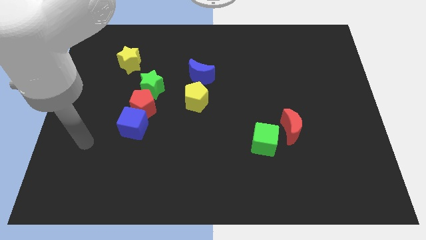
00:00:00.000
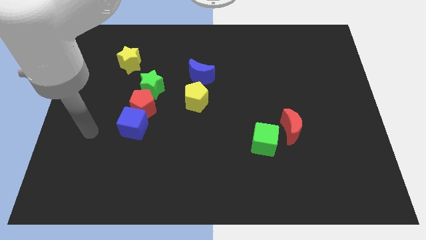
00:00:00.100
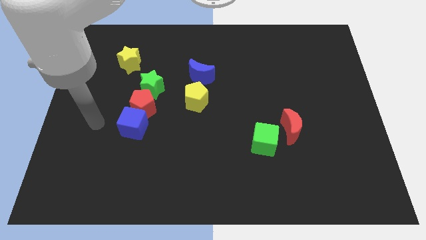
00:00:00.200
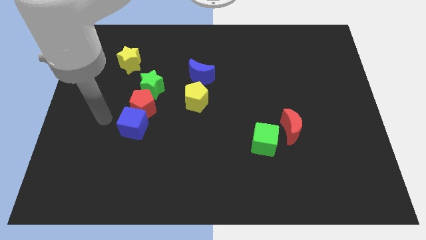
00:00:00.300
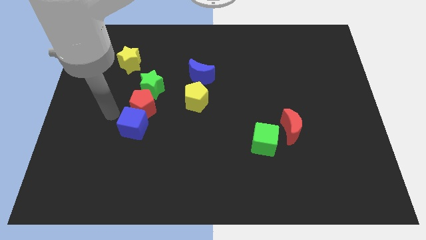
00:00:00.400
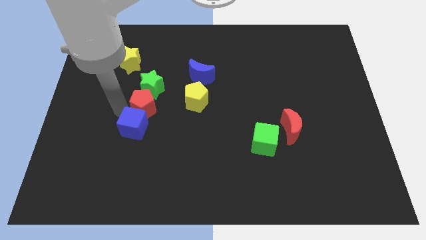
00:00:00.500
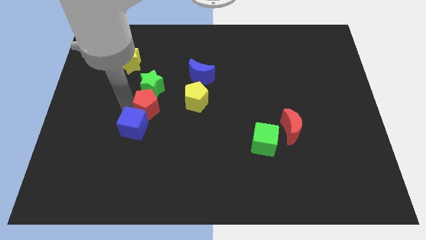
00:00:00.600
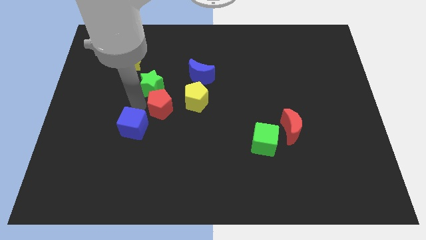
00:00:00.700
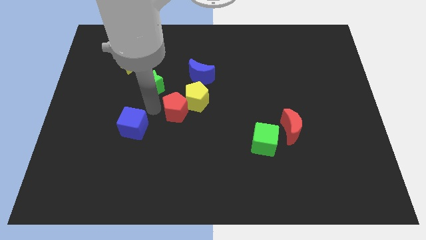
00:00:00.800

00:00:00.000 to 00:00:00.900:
pull the blue cube apart from the red pentagon

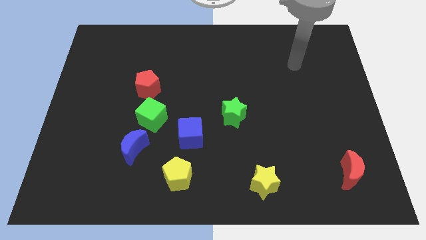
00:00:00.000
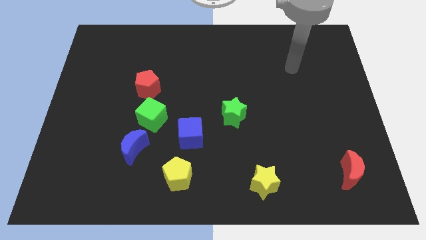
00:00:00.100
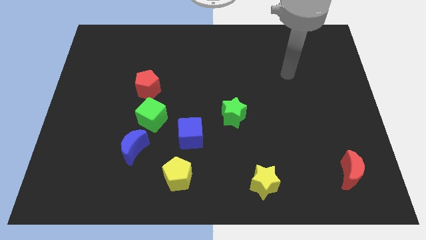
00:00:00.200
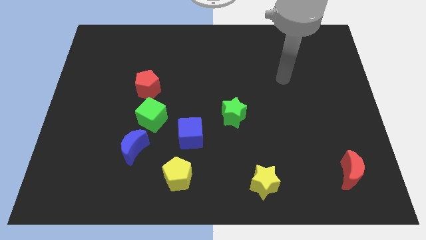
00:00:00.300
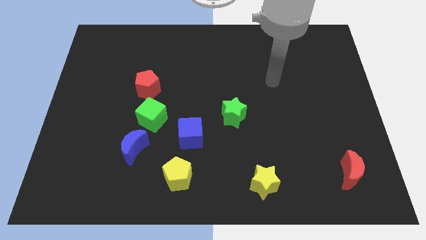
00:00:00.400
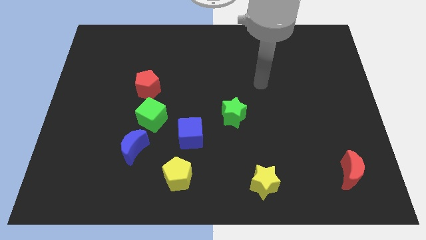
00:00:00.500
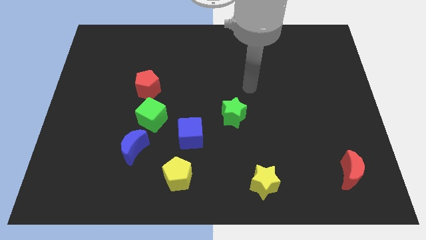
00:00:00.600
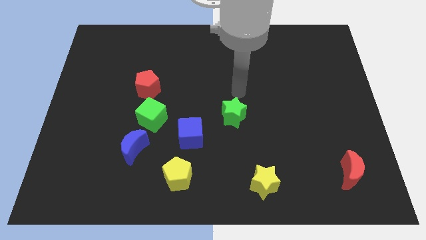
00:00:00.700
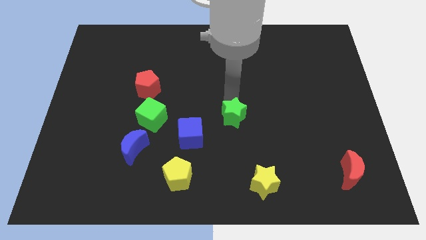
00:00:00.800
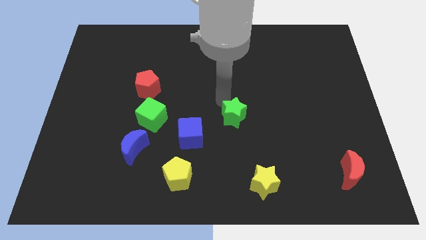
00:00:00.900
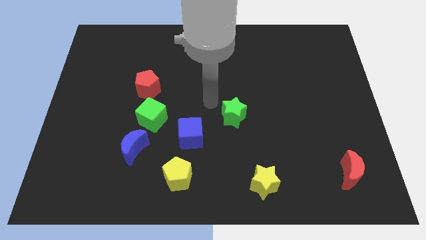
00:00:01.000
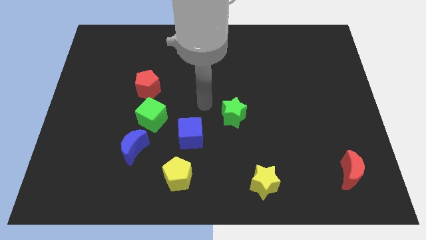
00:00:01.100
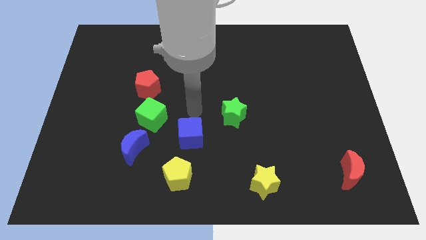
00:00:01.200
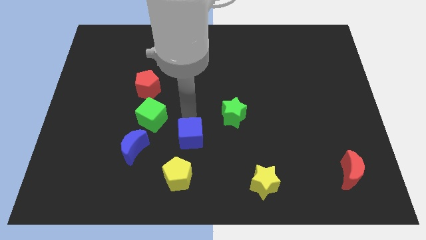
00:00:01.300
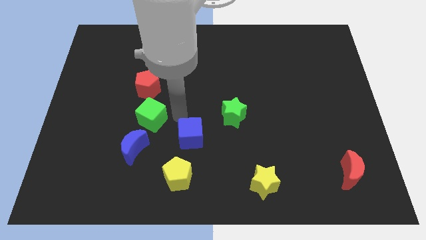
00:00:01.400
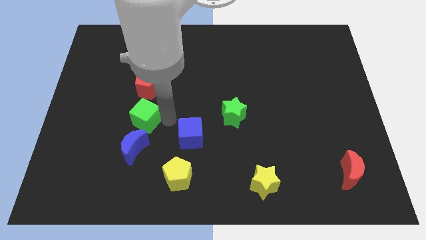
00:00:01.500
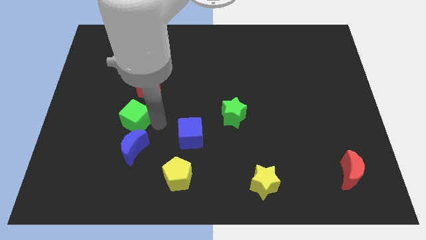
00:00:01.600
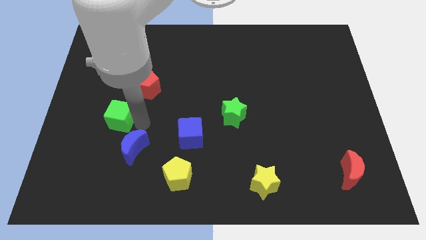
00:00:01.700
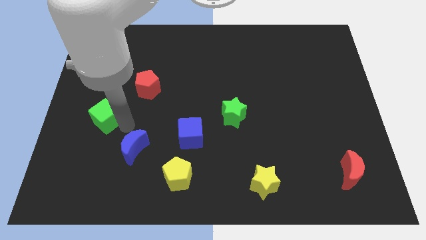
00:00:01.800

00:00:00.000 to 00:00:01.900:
move the blue moon away from the green cube

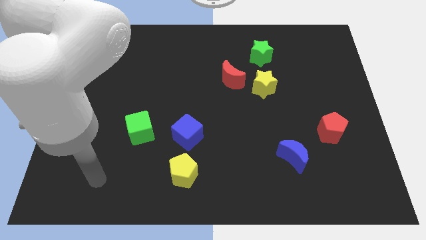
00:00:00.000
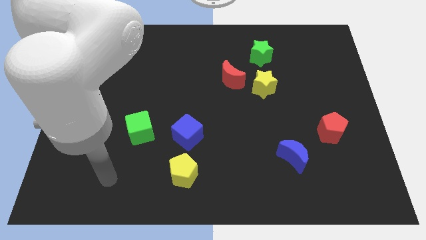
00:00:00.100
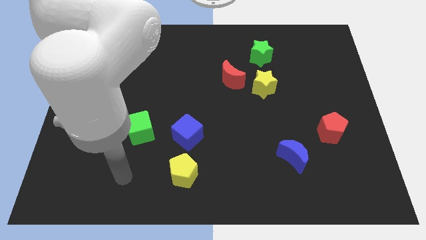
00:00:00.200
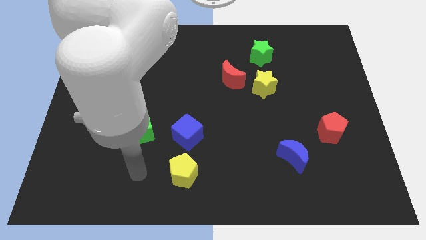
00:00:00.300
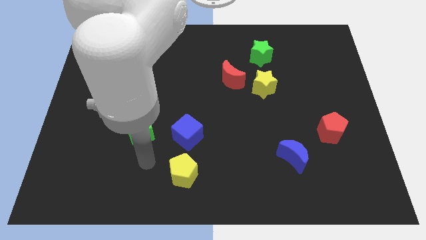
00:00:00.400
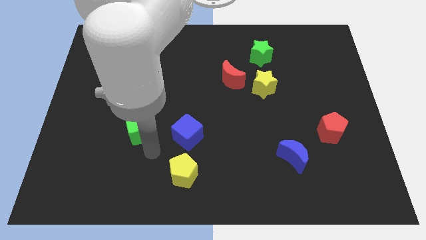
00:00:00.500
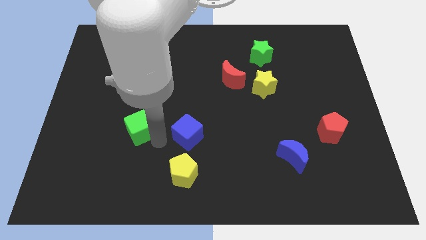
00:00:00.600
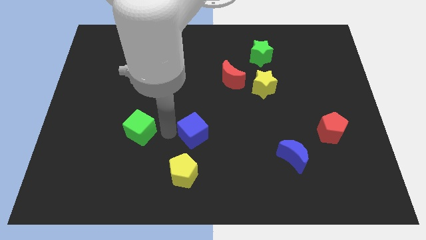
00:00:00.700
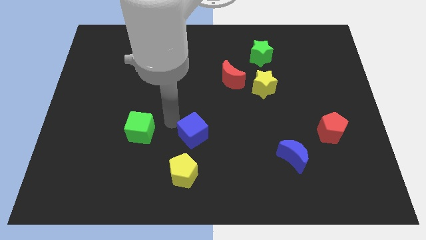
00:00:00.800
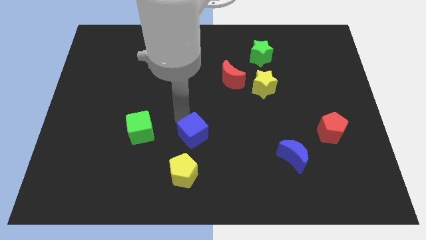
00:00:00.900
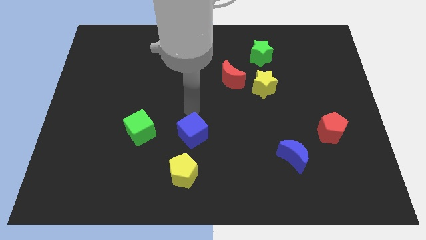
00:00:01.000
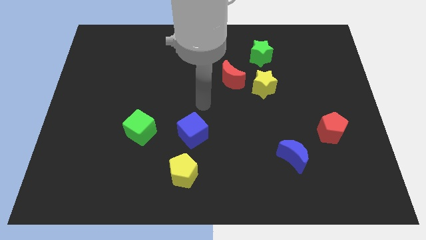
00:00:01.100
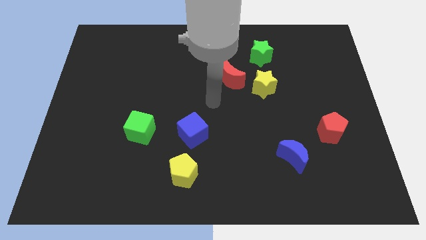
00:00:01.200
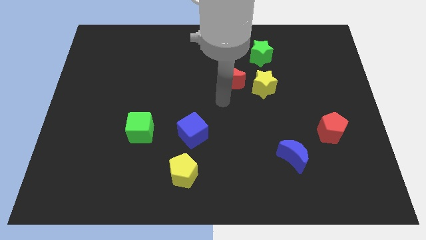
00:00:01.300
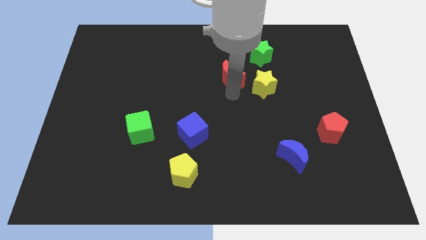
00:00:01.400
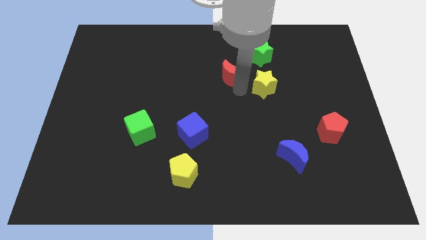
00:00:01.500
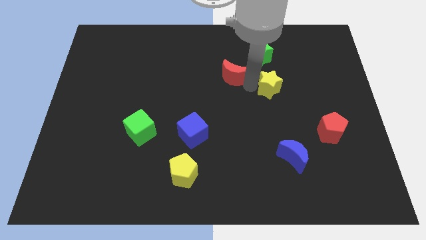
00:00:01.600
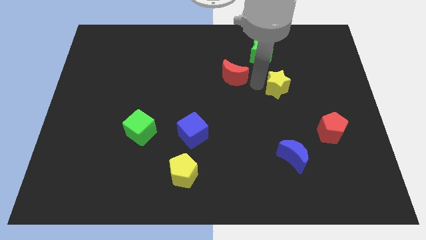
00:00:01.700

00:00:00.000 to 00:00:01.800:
move the red moon away from the yellow star

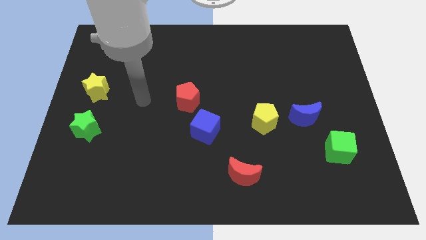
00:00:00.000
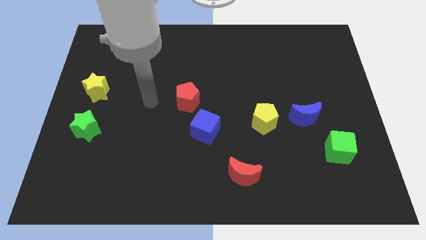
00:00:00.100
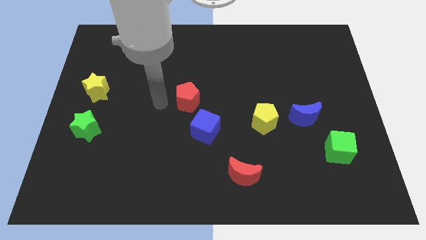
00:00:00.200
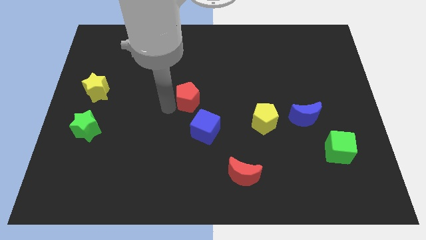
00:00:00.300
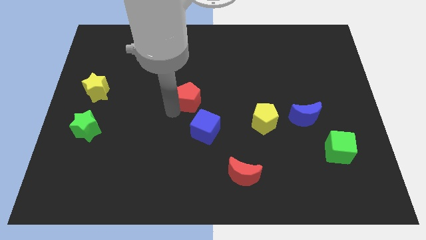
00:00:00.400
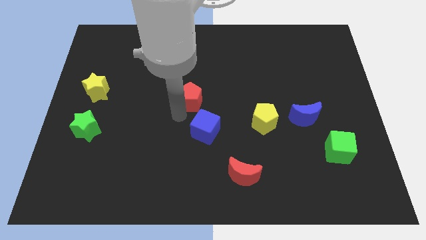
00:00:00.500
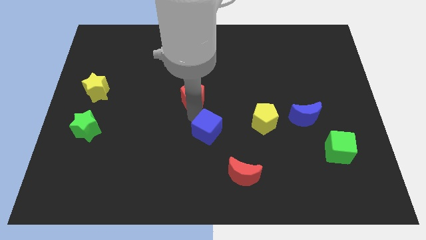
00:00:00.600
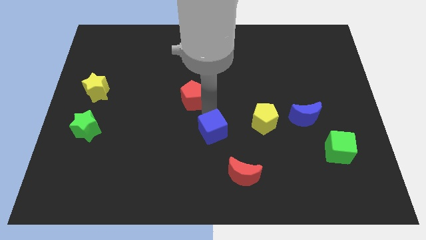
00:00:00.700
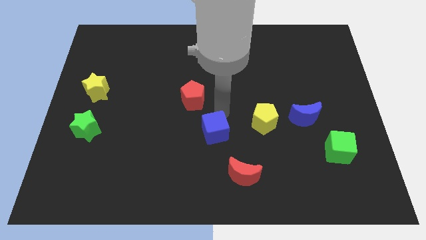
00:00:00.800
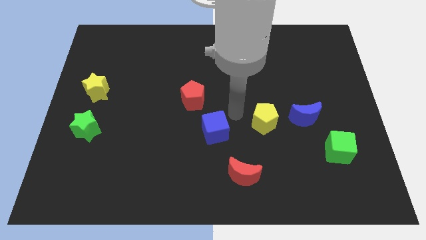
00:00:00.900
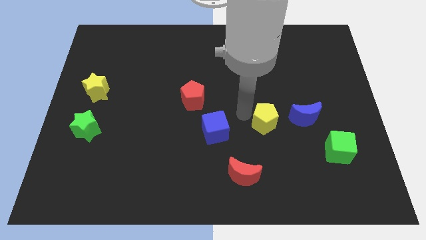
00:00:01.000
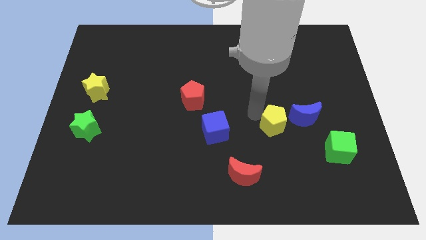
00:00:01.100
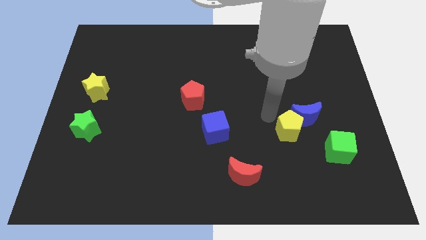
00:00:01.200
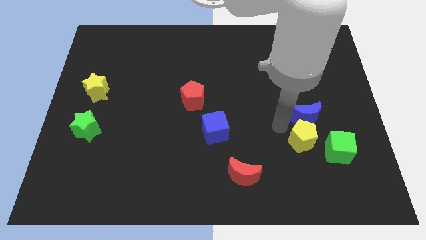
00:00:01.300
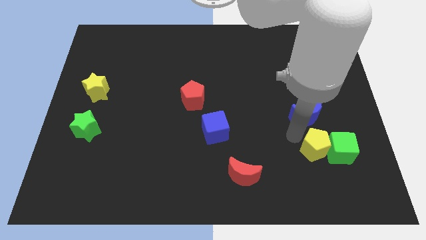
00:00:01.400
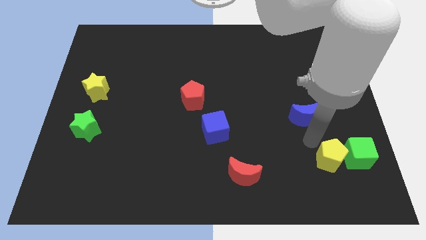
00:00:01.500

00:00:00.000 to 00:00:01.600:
separate the blue moon from the yellow pentagon

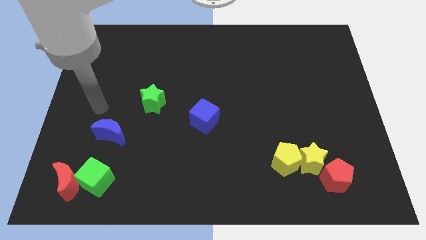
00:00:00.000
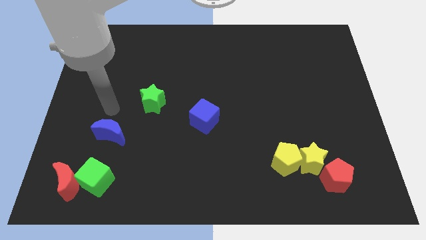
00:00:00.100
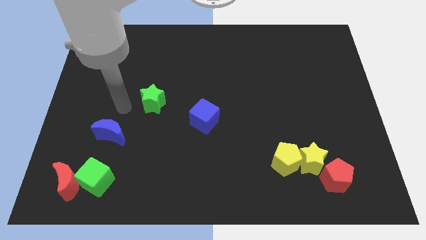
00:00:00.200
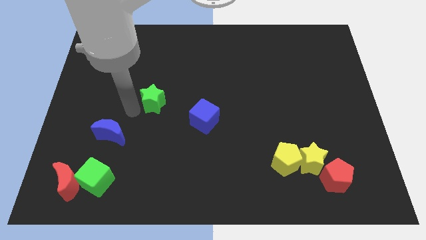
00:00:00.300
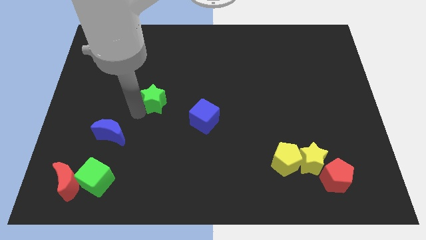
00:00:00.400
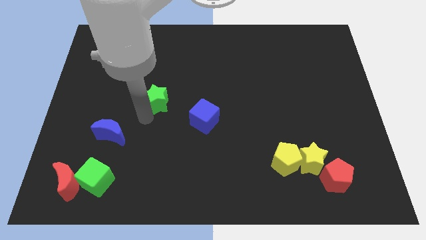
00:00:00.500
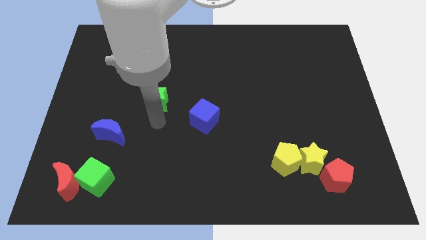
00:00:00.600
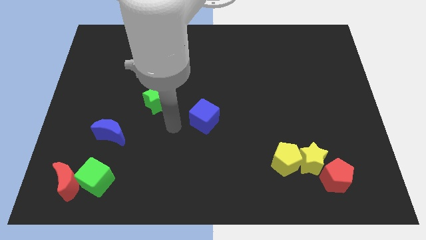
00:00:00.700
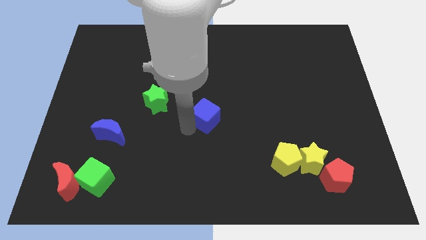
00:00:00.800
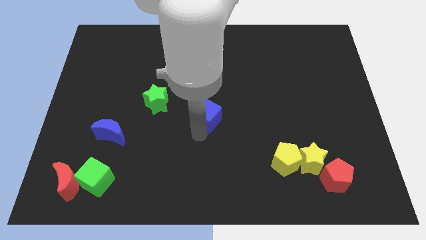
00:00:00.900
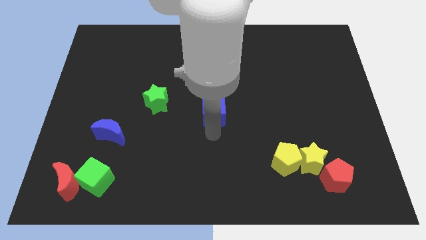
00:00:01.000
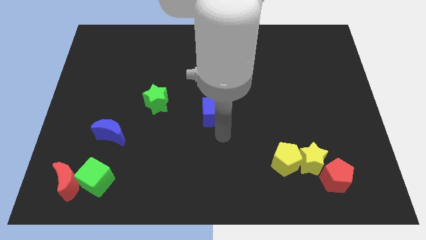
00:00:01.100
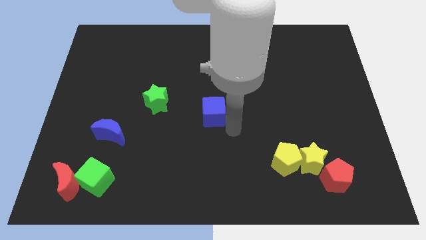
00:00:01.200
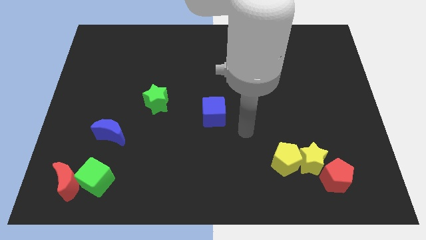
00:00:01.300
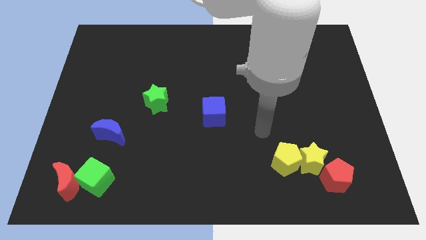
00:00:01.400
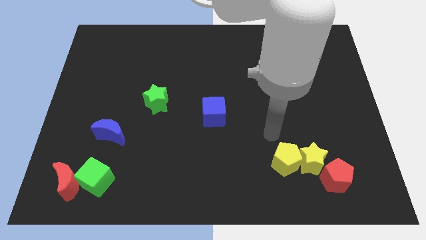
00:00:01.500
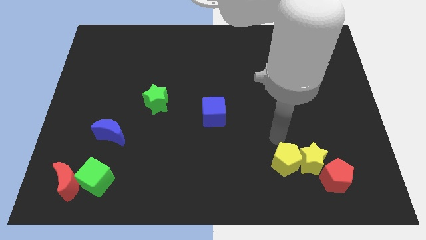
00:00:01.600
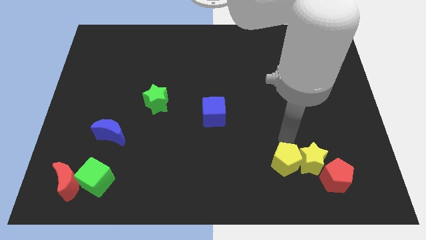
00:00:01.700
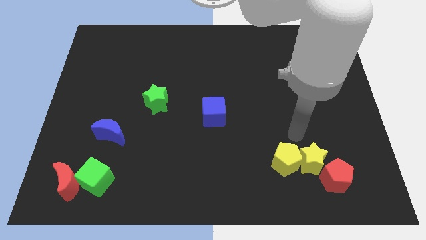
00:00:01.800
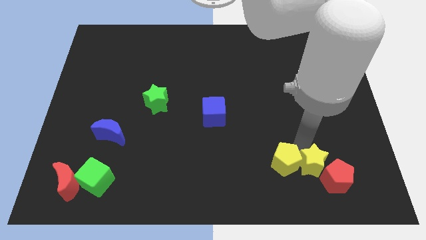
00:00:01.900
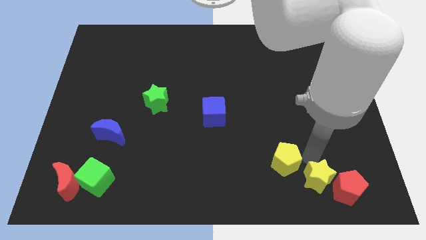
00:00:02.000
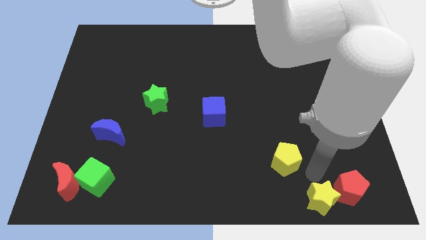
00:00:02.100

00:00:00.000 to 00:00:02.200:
pull the yellow pentagon apart from the yellow star

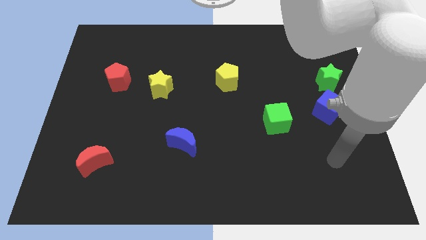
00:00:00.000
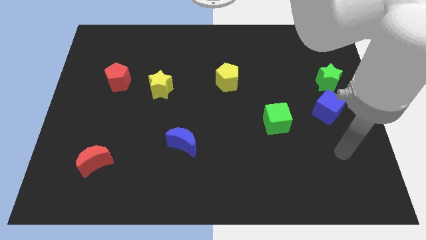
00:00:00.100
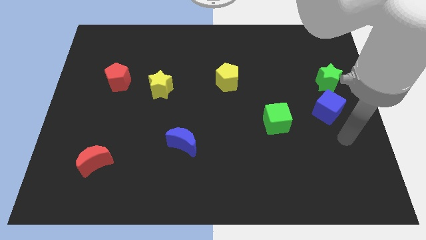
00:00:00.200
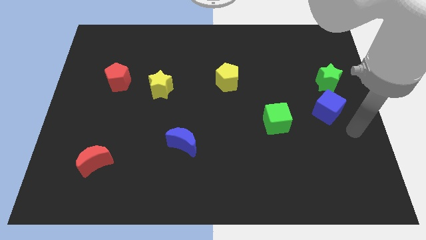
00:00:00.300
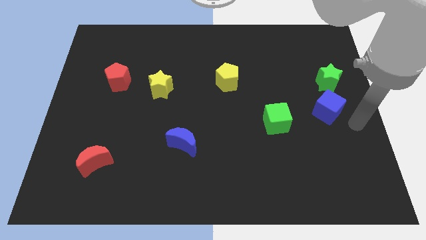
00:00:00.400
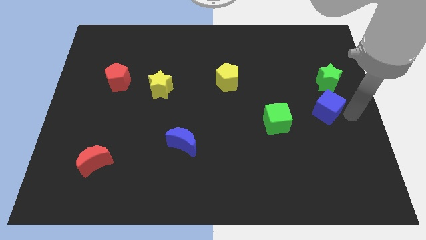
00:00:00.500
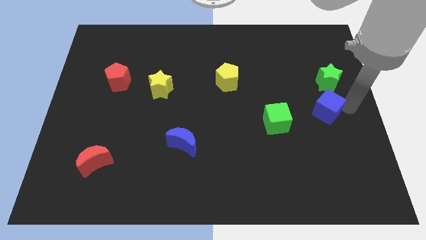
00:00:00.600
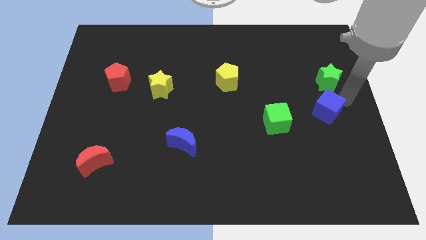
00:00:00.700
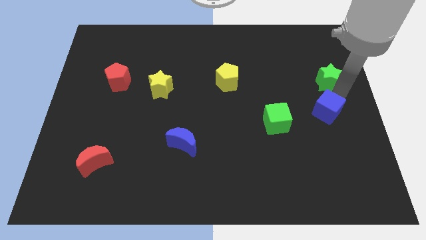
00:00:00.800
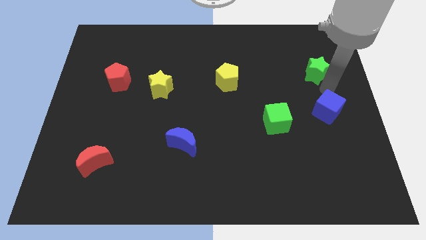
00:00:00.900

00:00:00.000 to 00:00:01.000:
move the blue cube away from the green star
